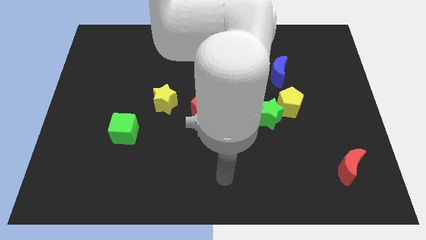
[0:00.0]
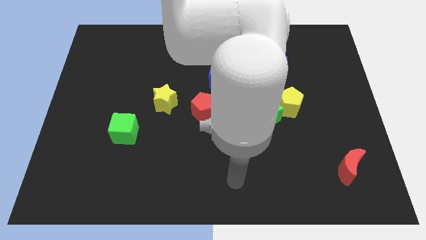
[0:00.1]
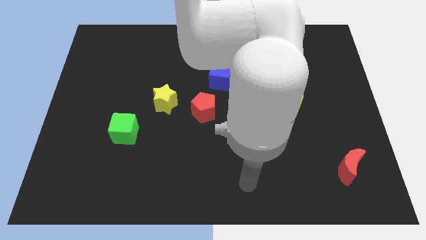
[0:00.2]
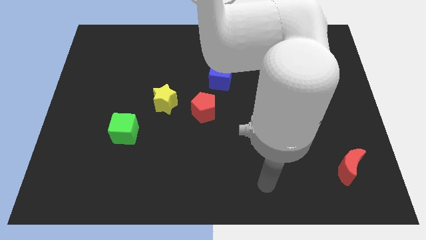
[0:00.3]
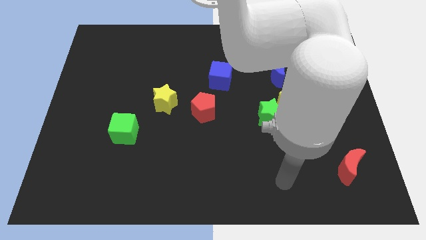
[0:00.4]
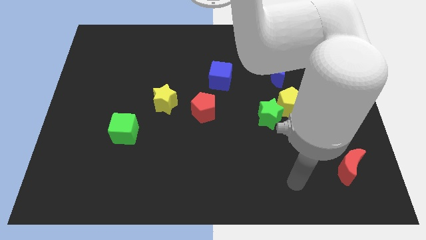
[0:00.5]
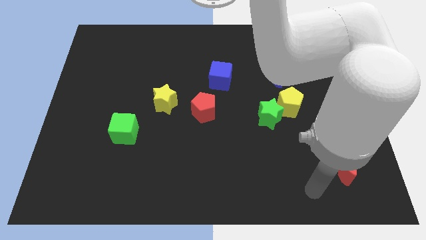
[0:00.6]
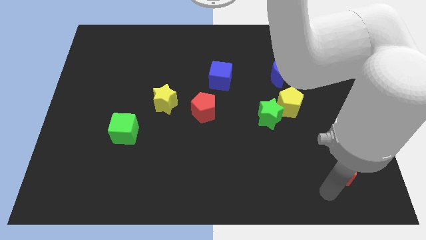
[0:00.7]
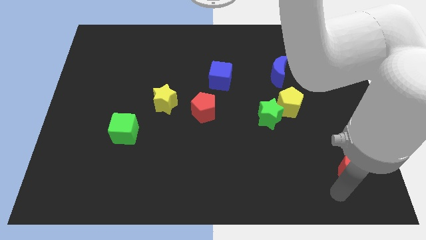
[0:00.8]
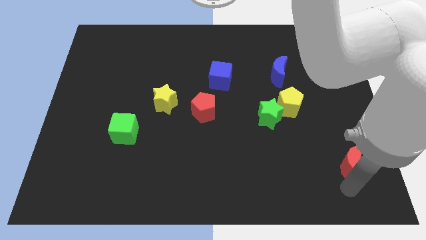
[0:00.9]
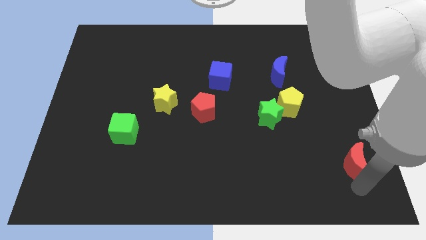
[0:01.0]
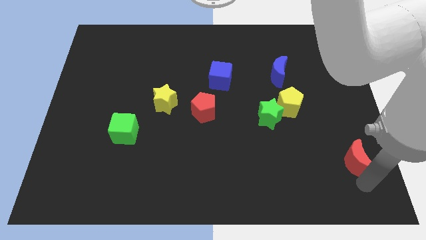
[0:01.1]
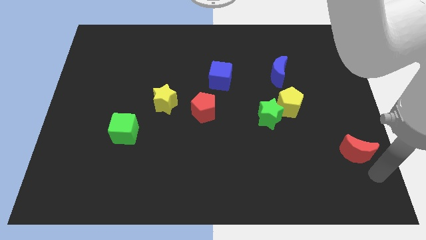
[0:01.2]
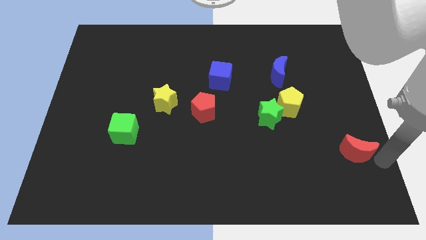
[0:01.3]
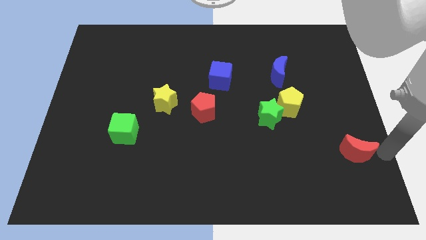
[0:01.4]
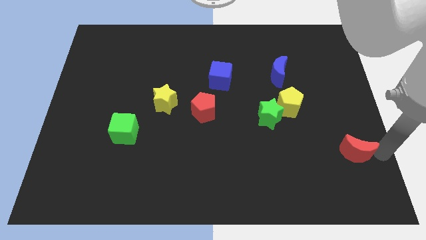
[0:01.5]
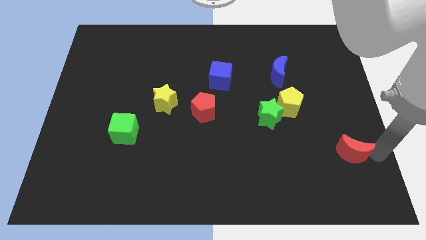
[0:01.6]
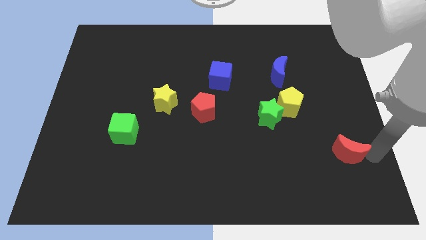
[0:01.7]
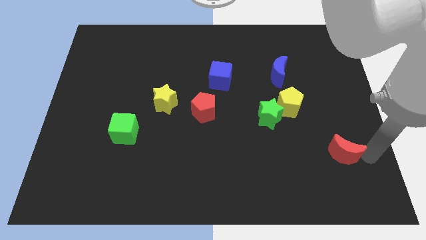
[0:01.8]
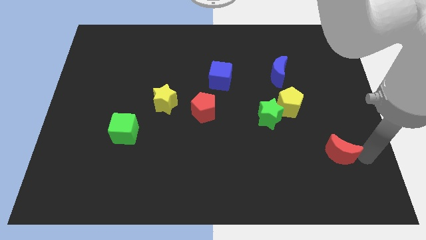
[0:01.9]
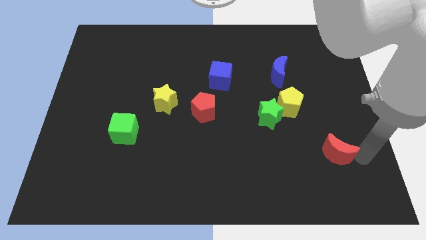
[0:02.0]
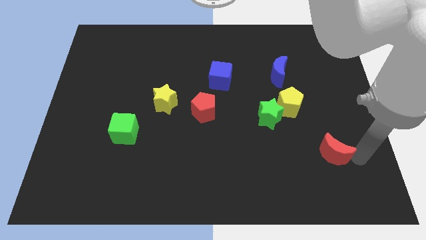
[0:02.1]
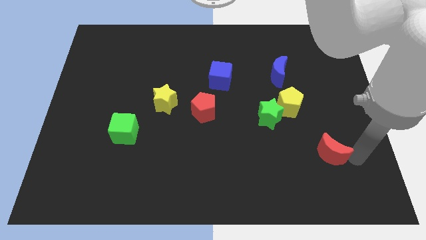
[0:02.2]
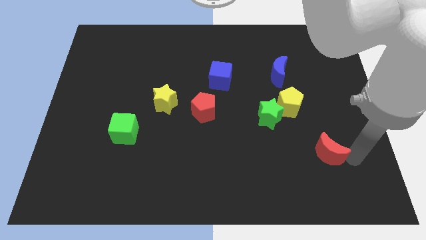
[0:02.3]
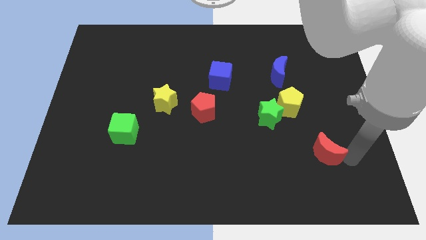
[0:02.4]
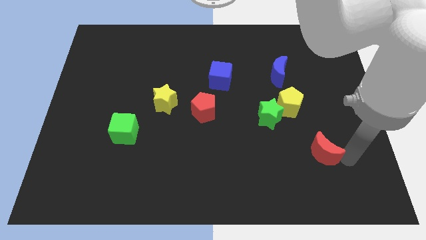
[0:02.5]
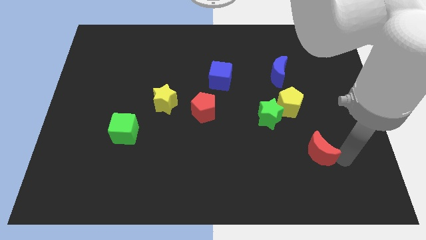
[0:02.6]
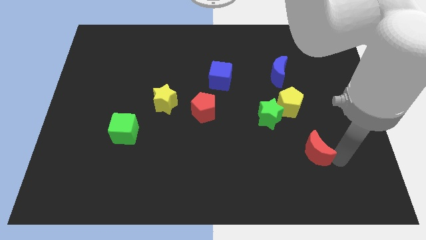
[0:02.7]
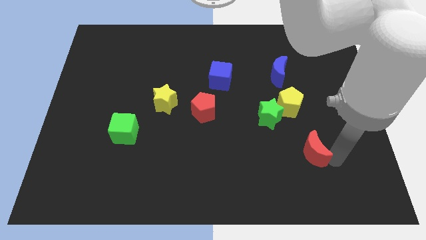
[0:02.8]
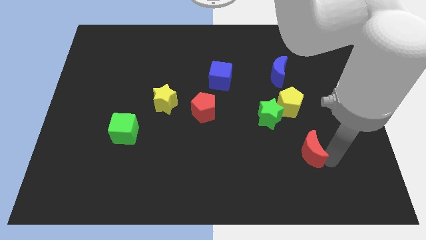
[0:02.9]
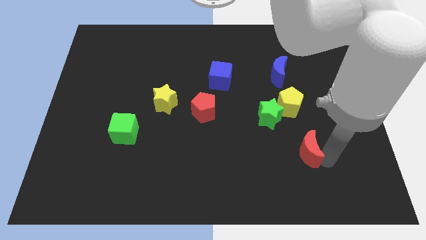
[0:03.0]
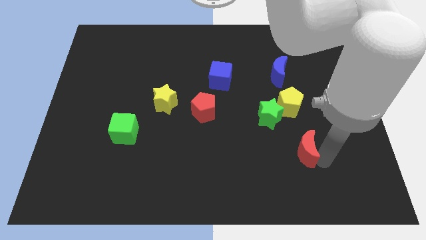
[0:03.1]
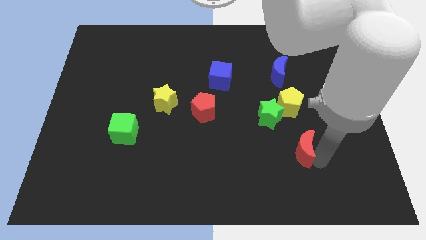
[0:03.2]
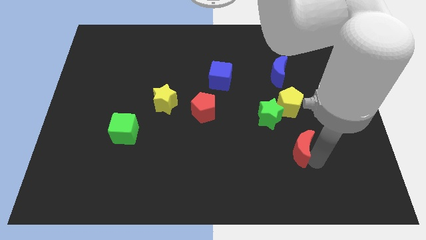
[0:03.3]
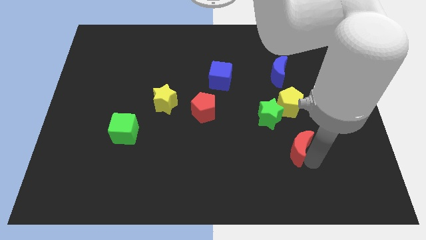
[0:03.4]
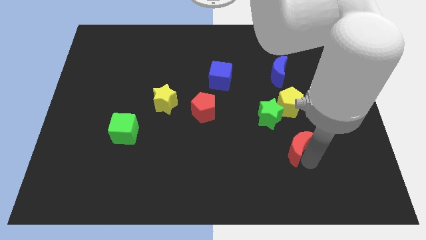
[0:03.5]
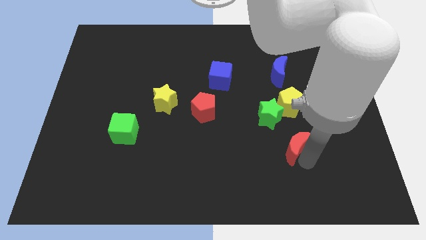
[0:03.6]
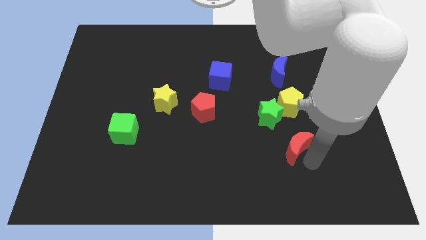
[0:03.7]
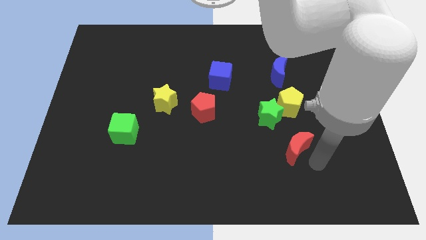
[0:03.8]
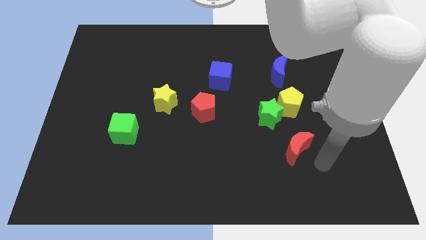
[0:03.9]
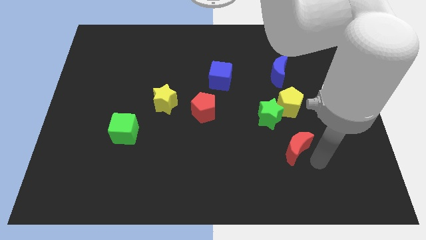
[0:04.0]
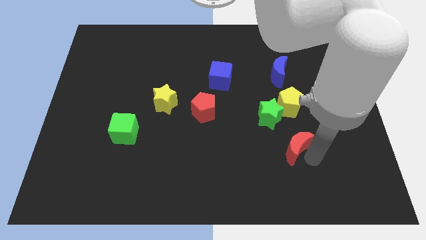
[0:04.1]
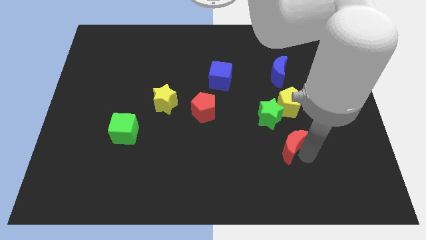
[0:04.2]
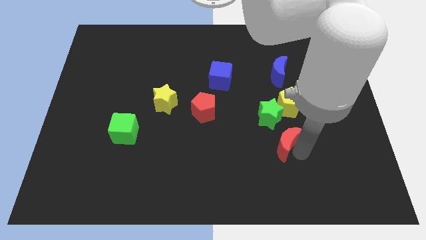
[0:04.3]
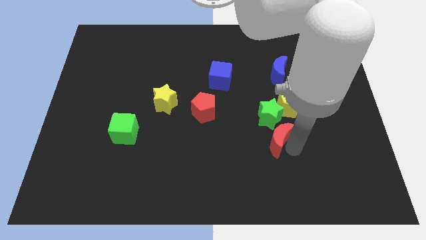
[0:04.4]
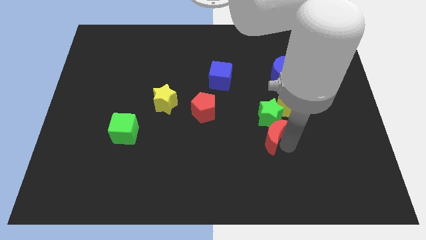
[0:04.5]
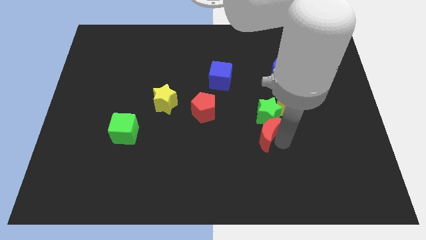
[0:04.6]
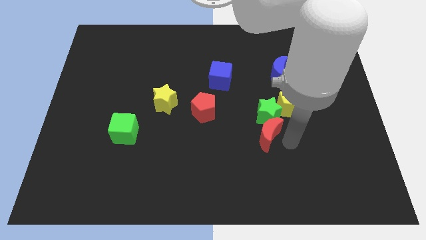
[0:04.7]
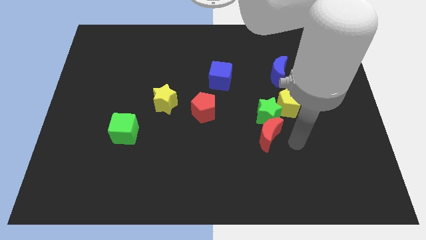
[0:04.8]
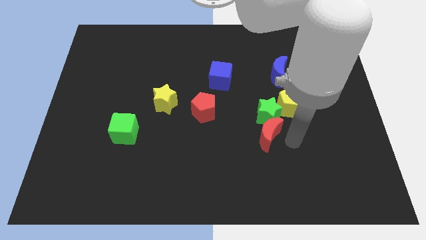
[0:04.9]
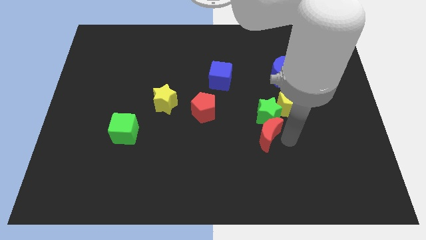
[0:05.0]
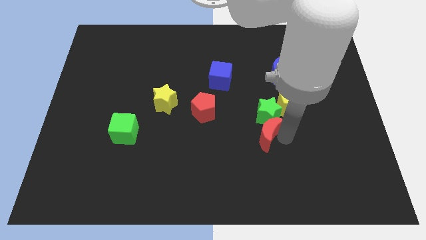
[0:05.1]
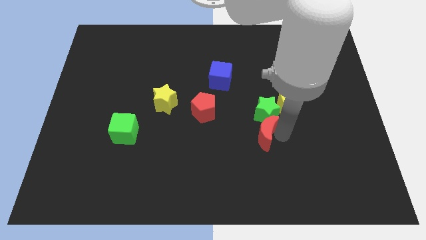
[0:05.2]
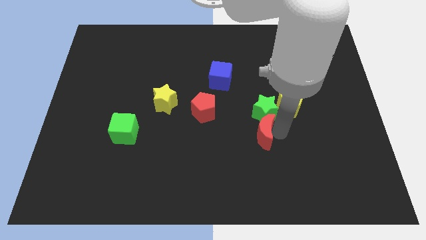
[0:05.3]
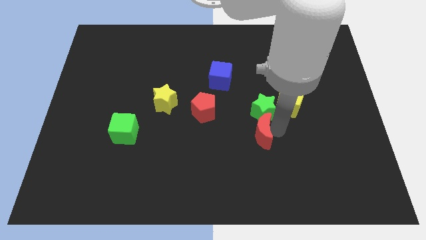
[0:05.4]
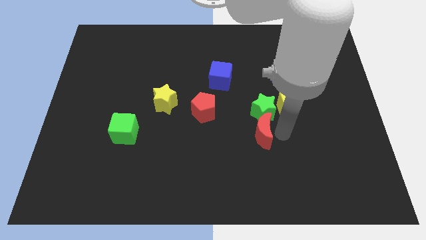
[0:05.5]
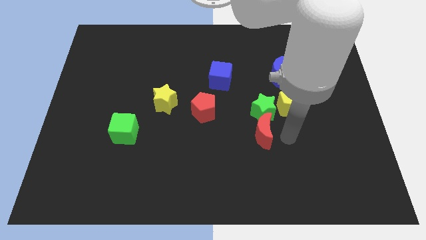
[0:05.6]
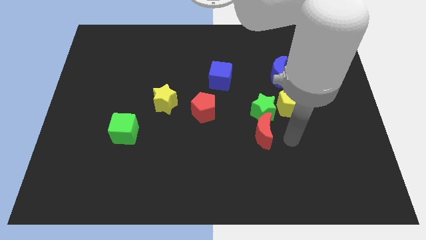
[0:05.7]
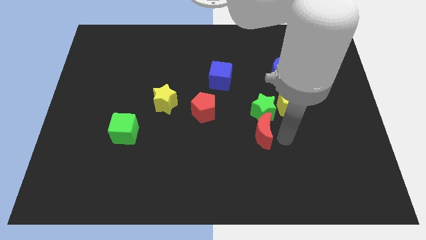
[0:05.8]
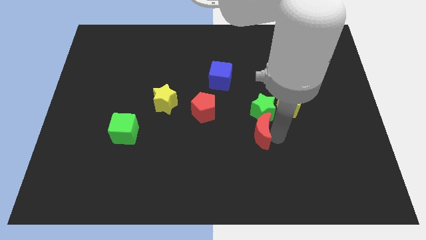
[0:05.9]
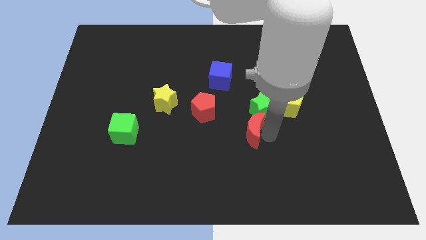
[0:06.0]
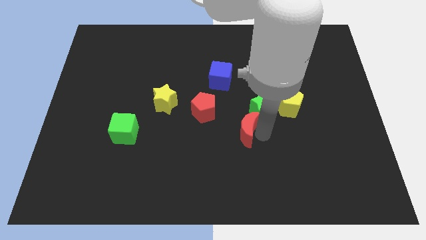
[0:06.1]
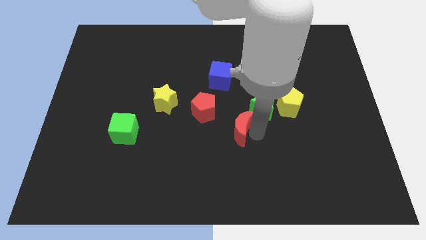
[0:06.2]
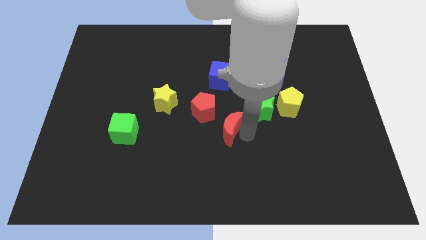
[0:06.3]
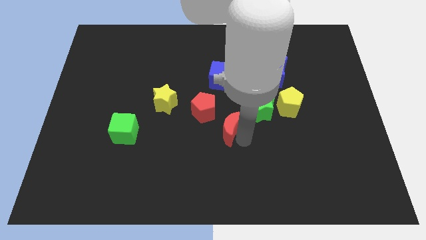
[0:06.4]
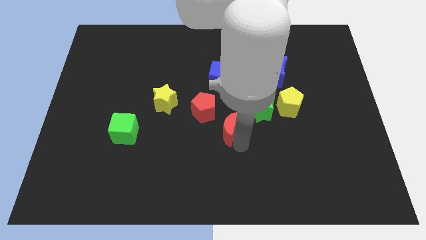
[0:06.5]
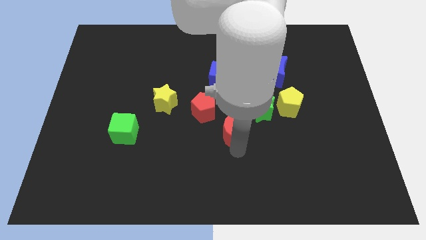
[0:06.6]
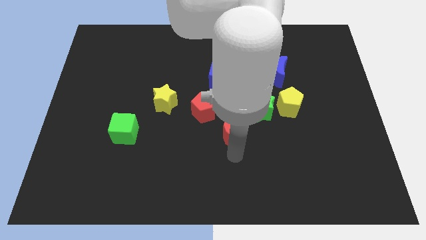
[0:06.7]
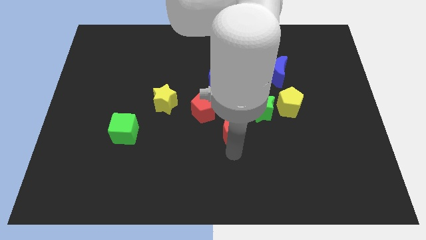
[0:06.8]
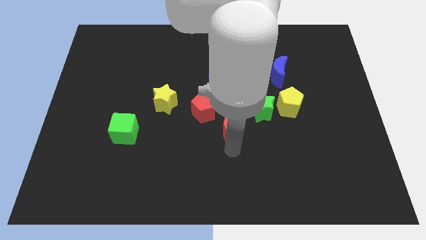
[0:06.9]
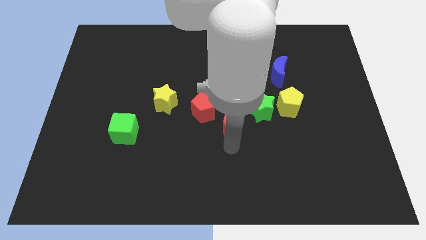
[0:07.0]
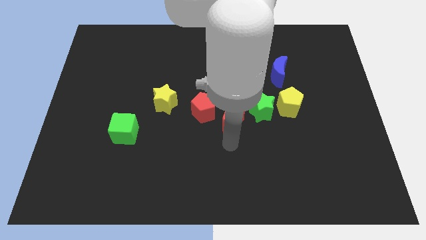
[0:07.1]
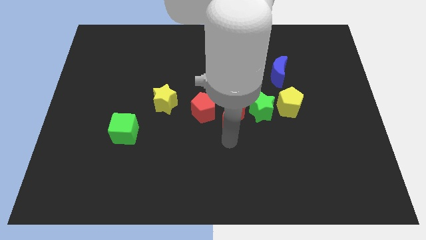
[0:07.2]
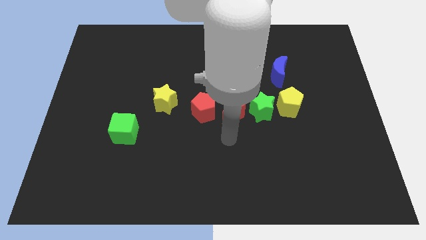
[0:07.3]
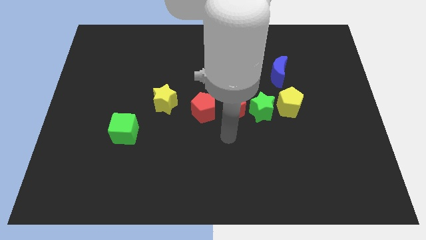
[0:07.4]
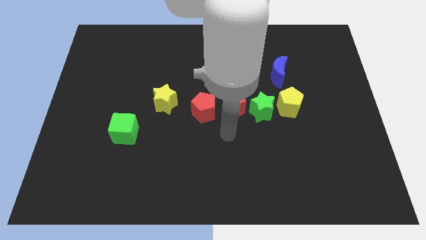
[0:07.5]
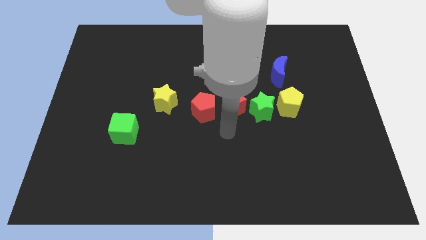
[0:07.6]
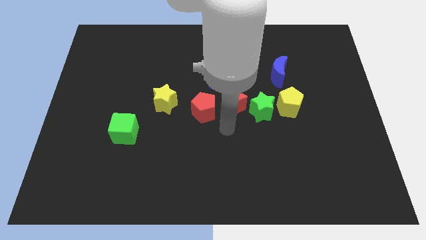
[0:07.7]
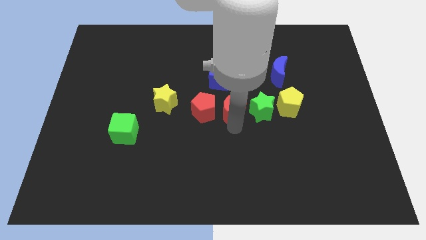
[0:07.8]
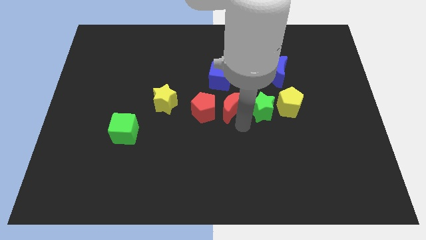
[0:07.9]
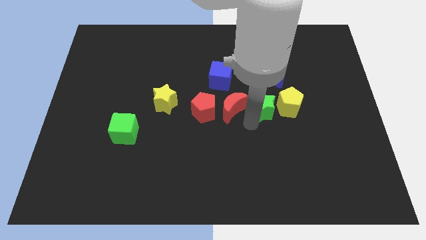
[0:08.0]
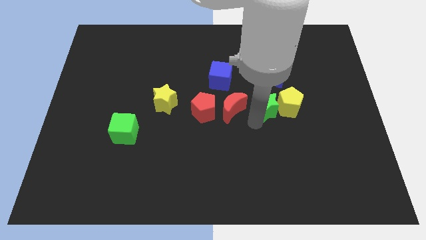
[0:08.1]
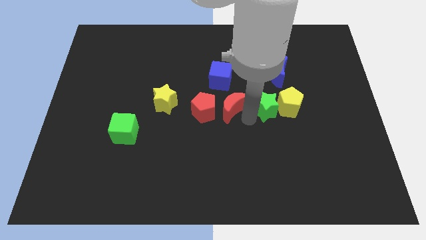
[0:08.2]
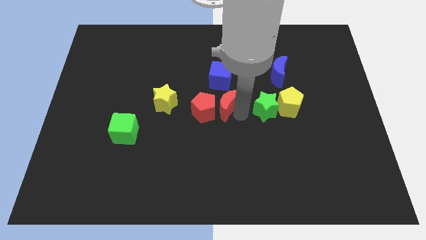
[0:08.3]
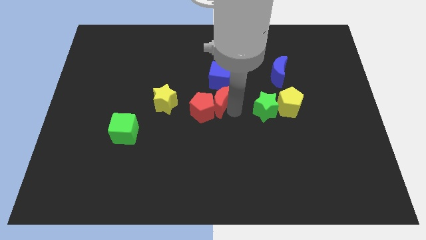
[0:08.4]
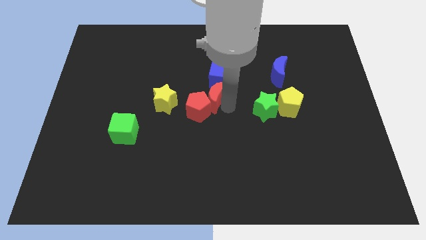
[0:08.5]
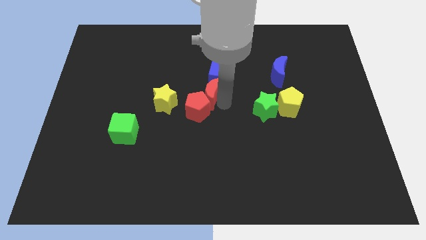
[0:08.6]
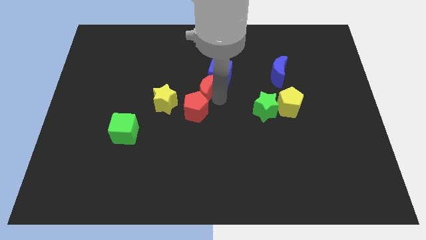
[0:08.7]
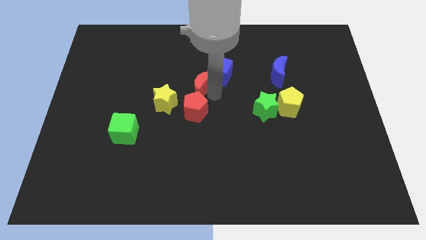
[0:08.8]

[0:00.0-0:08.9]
move the red moon diagonally up and to the right of the yellow star
